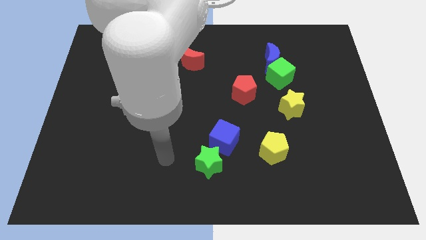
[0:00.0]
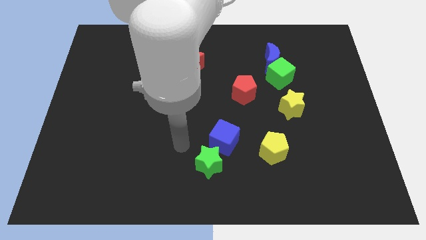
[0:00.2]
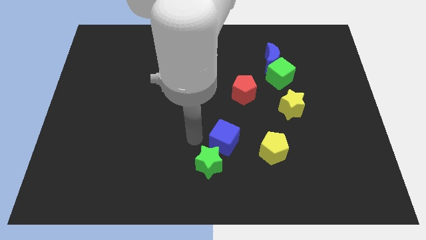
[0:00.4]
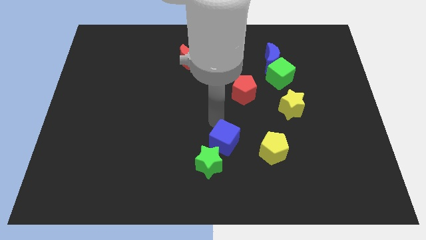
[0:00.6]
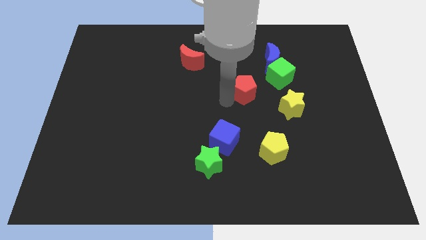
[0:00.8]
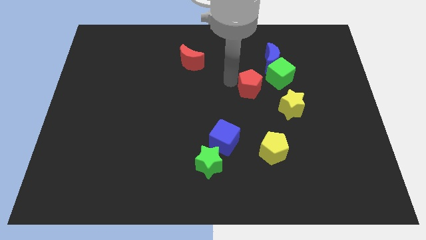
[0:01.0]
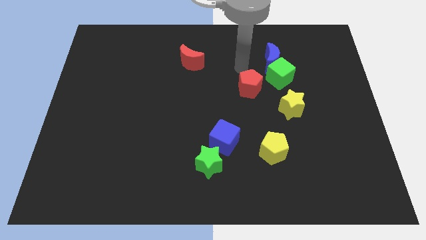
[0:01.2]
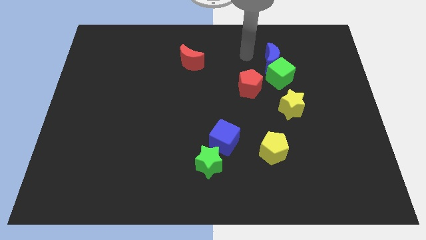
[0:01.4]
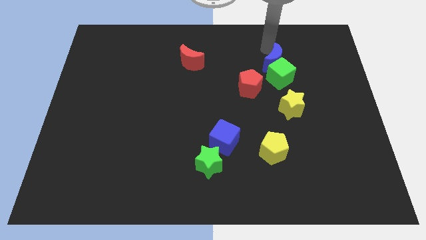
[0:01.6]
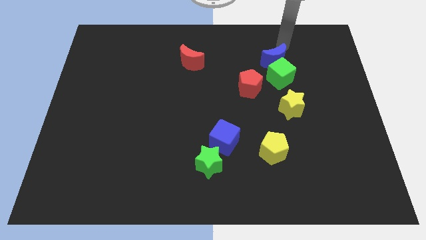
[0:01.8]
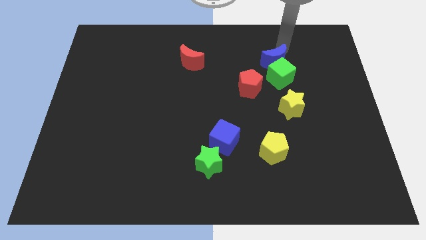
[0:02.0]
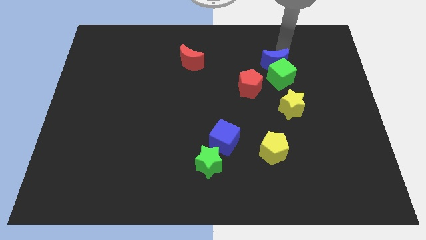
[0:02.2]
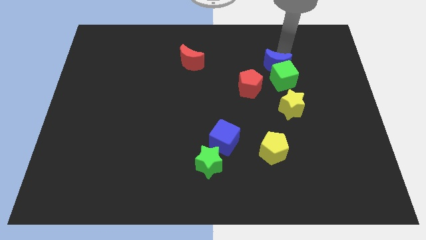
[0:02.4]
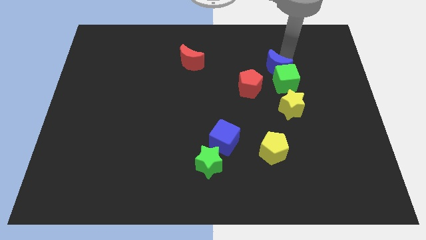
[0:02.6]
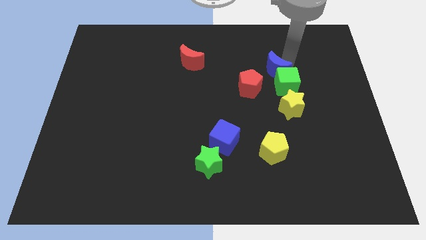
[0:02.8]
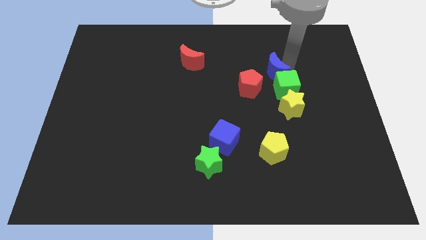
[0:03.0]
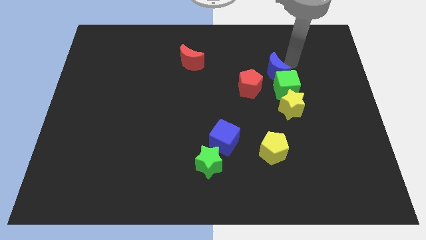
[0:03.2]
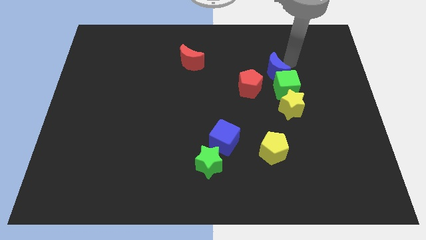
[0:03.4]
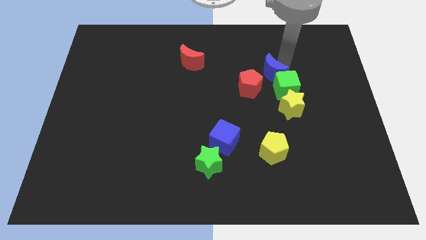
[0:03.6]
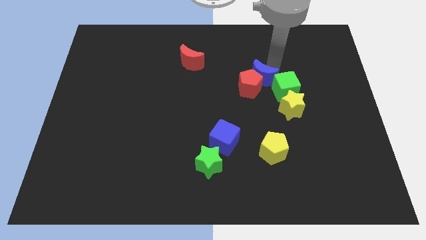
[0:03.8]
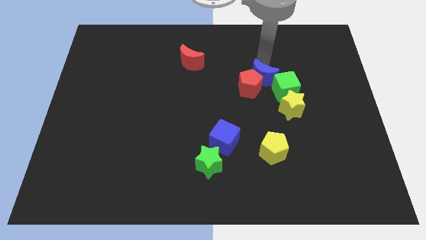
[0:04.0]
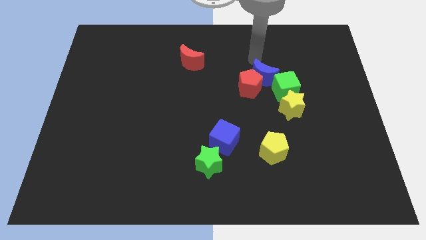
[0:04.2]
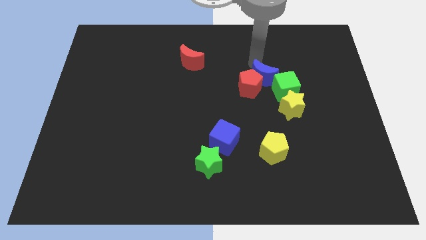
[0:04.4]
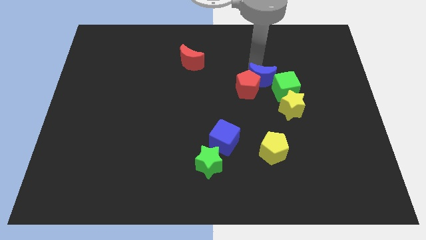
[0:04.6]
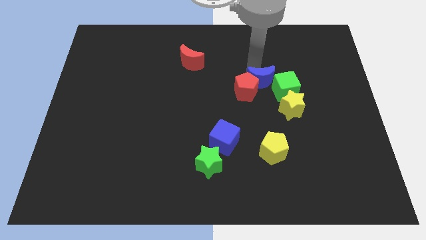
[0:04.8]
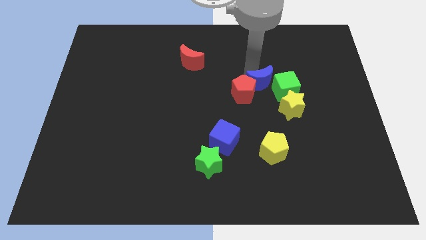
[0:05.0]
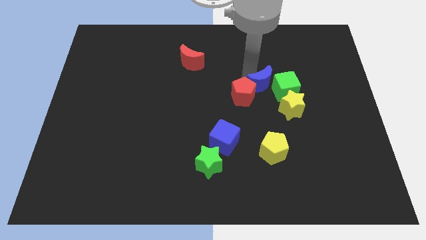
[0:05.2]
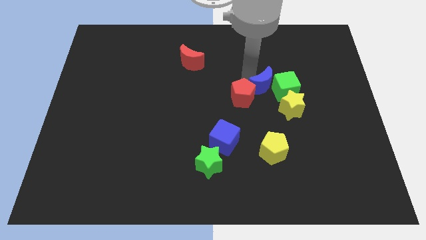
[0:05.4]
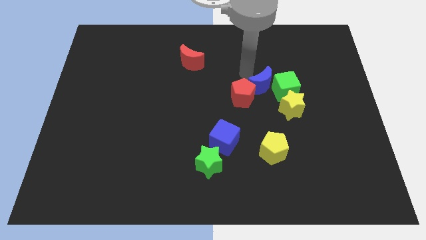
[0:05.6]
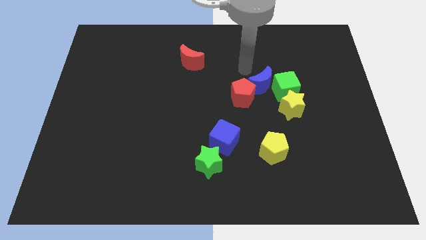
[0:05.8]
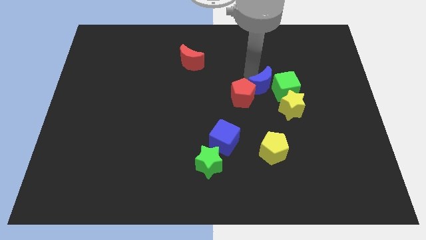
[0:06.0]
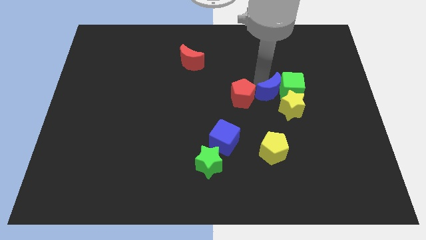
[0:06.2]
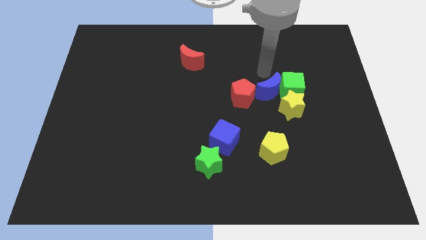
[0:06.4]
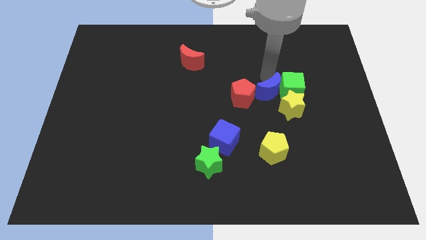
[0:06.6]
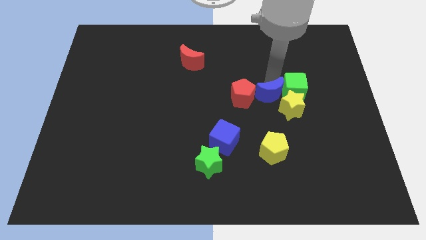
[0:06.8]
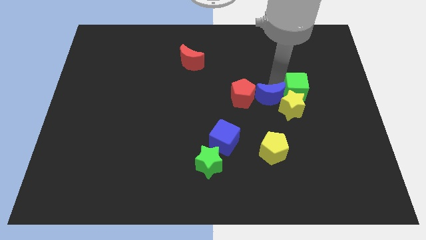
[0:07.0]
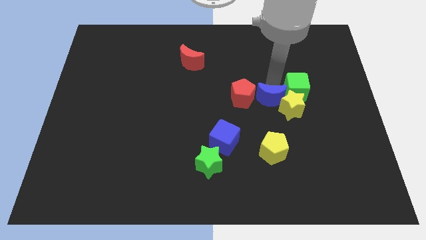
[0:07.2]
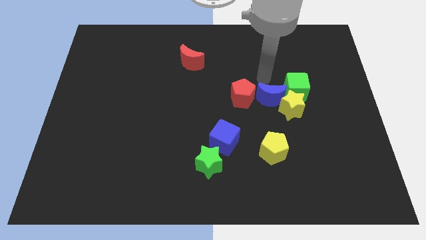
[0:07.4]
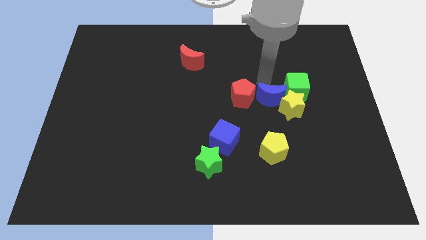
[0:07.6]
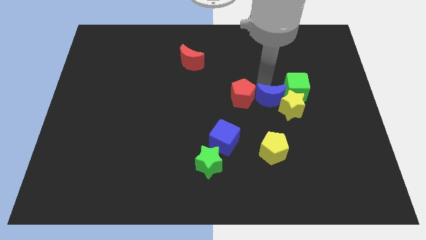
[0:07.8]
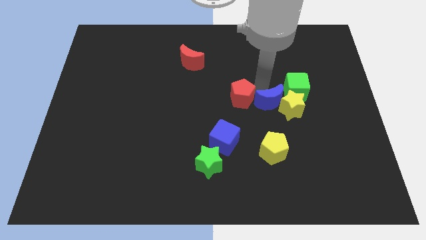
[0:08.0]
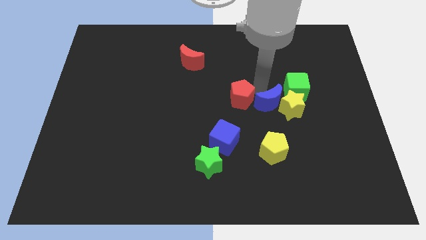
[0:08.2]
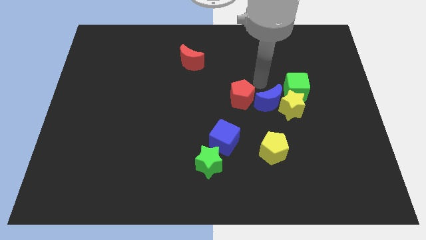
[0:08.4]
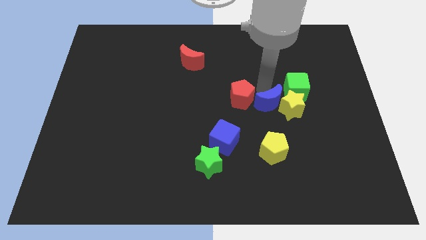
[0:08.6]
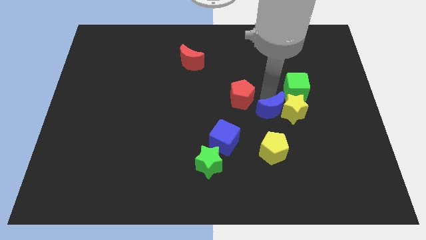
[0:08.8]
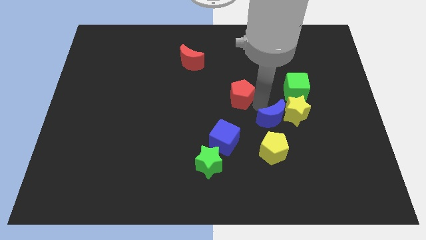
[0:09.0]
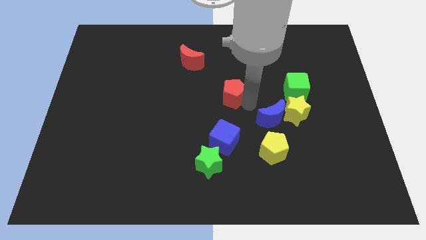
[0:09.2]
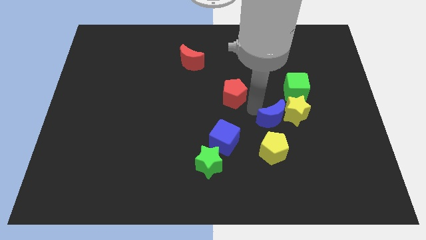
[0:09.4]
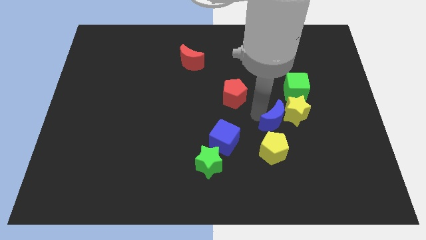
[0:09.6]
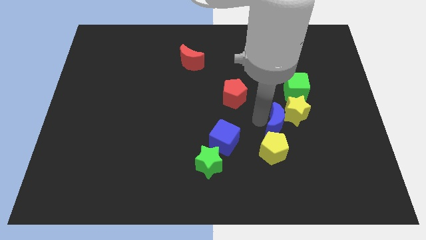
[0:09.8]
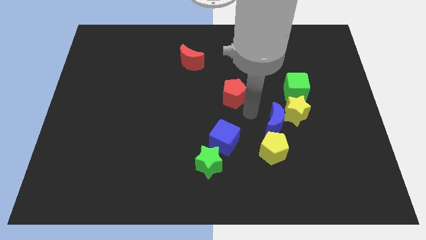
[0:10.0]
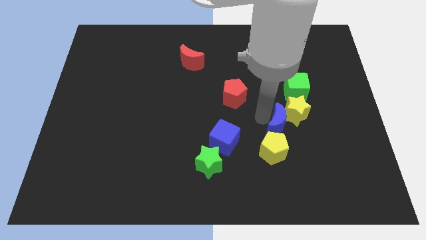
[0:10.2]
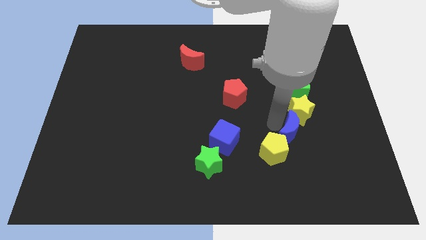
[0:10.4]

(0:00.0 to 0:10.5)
slide the blue moon to the right side of the yellow pentagon

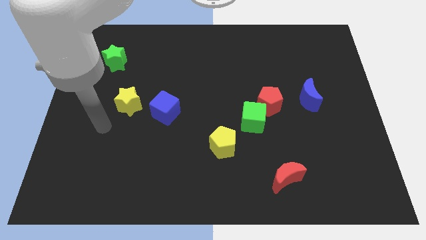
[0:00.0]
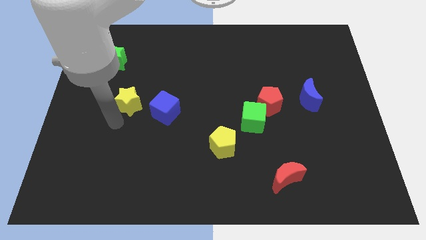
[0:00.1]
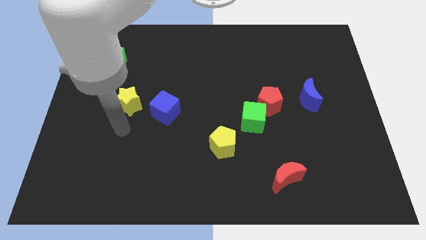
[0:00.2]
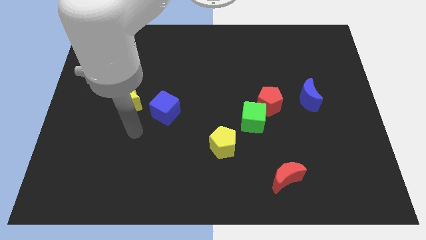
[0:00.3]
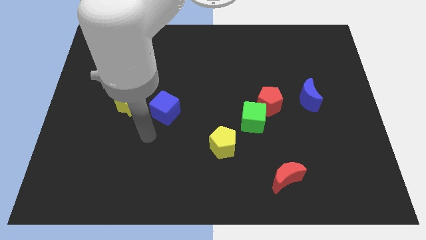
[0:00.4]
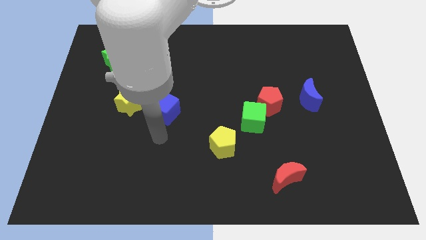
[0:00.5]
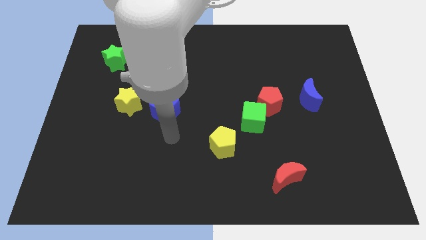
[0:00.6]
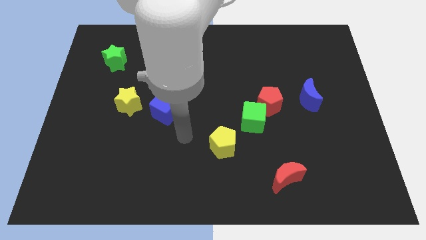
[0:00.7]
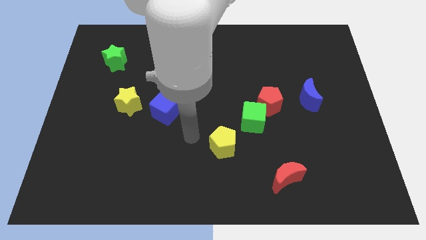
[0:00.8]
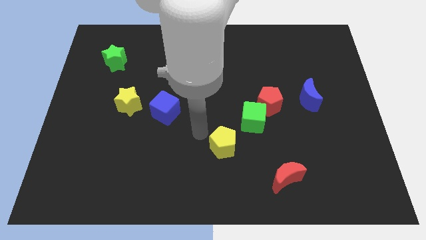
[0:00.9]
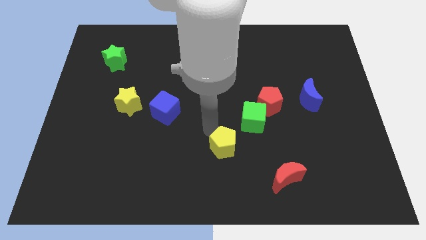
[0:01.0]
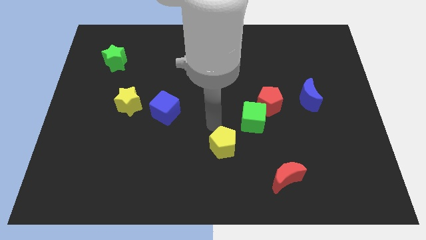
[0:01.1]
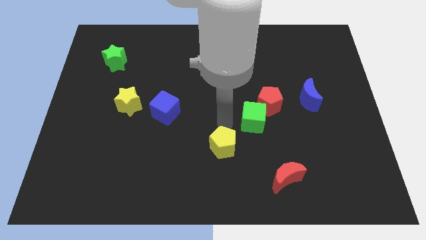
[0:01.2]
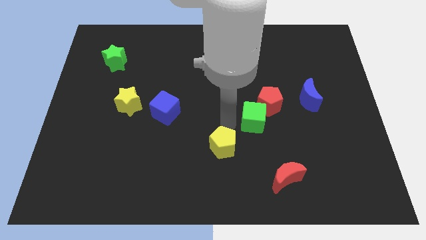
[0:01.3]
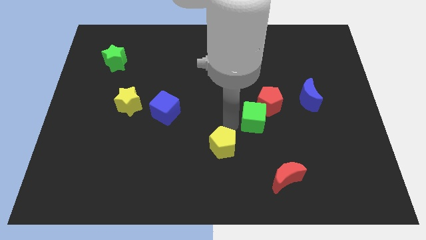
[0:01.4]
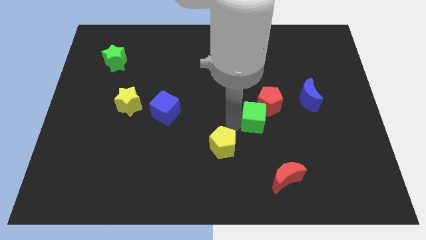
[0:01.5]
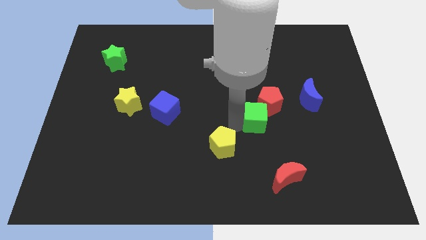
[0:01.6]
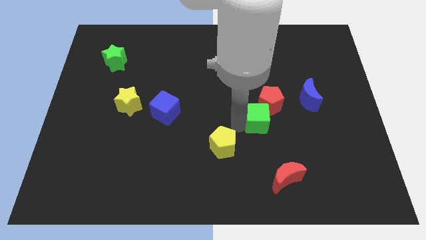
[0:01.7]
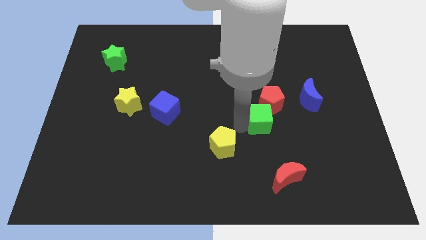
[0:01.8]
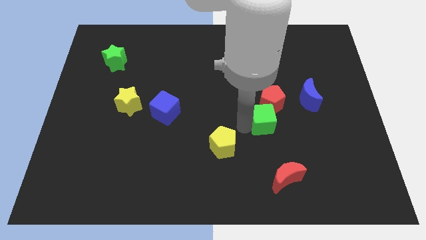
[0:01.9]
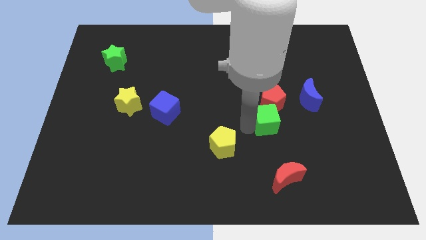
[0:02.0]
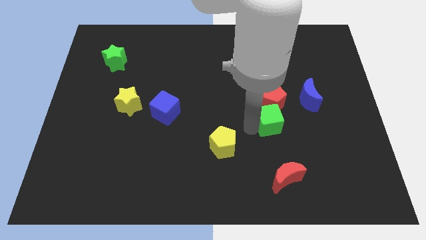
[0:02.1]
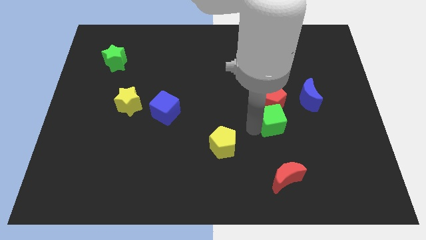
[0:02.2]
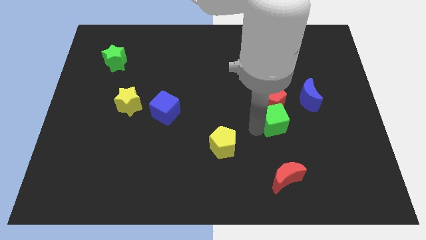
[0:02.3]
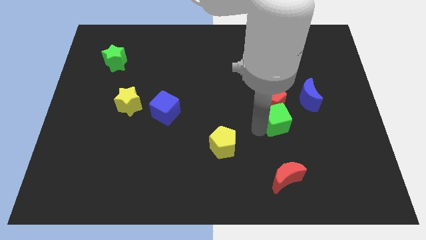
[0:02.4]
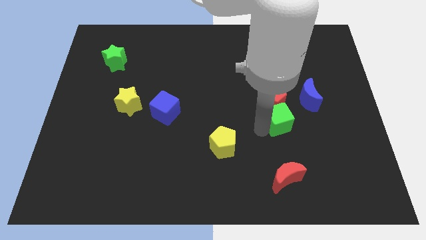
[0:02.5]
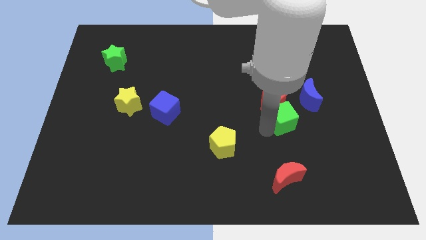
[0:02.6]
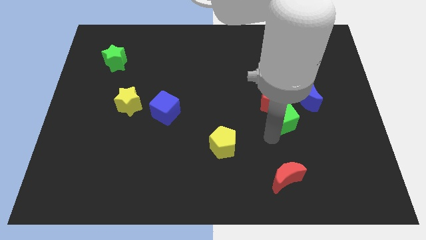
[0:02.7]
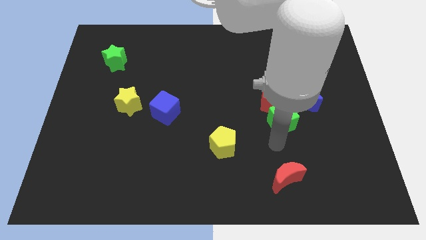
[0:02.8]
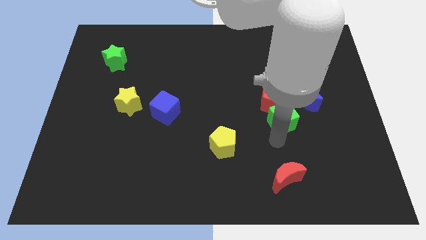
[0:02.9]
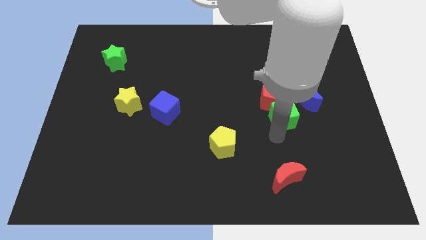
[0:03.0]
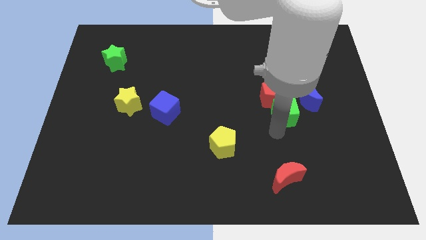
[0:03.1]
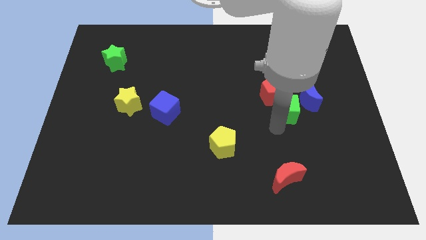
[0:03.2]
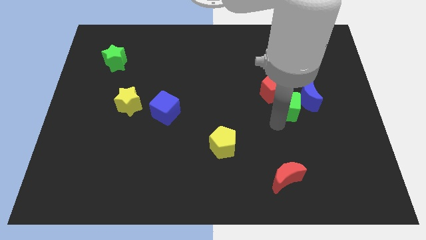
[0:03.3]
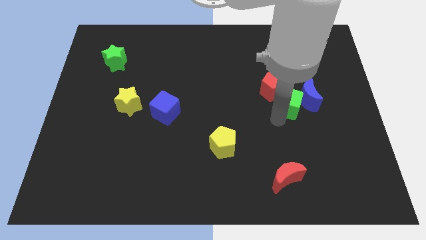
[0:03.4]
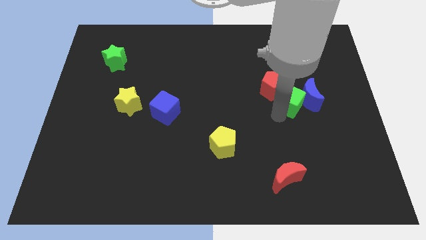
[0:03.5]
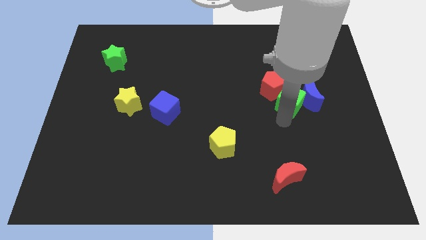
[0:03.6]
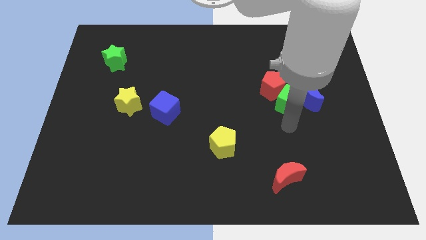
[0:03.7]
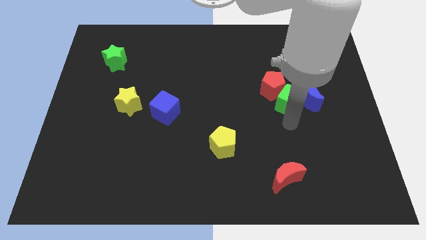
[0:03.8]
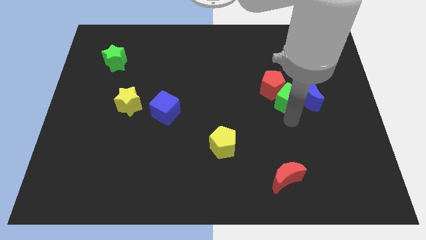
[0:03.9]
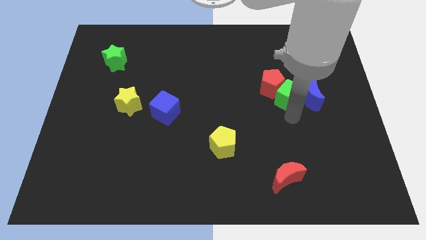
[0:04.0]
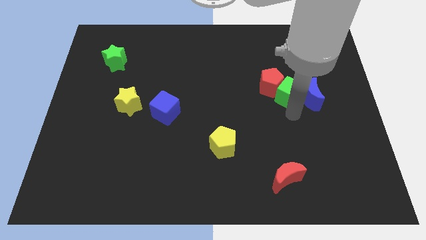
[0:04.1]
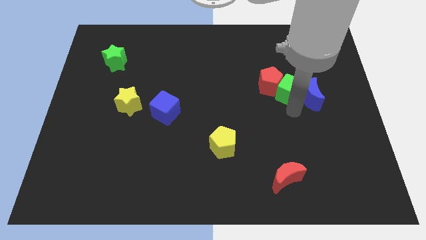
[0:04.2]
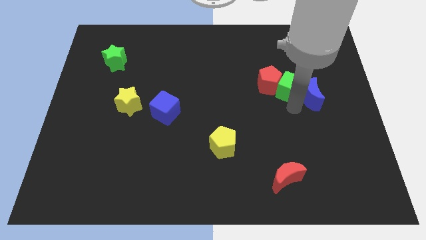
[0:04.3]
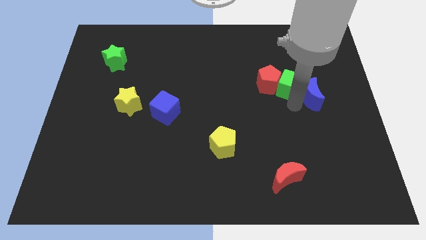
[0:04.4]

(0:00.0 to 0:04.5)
put the green cube to the top right side of the red pentagon
